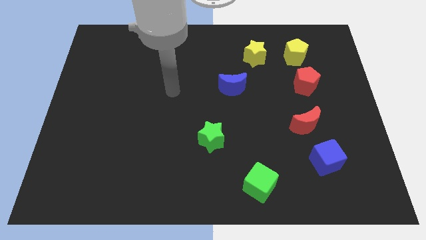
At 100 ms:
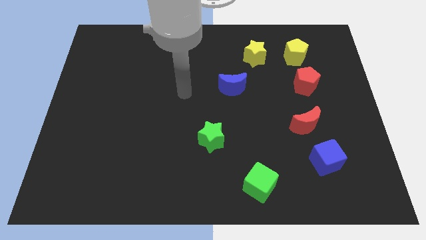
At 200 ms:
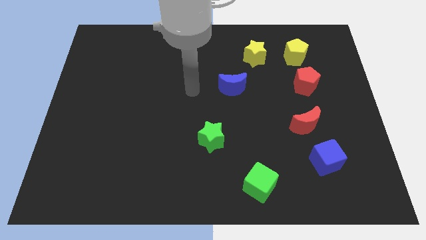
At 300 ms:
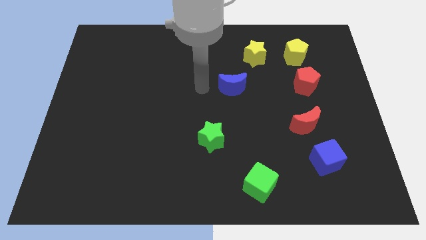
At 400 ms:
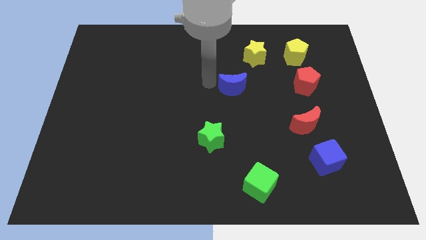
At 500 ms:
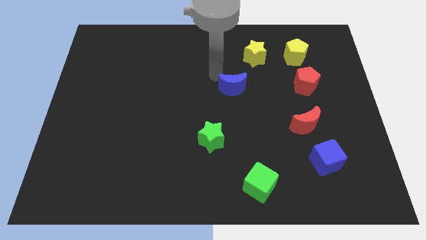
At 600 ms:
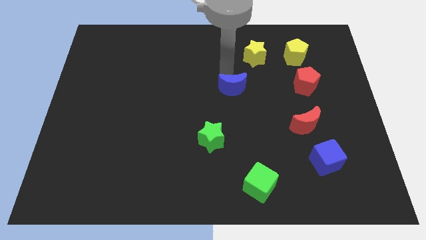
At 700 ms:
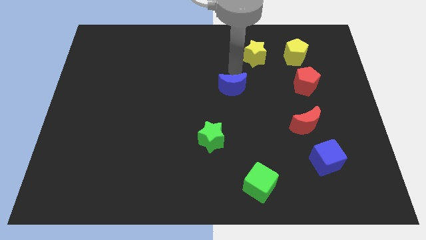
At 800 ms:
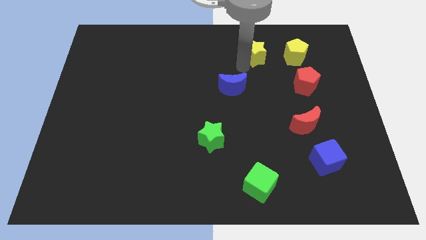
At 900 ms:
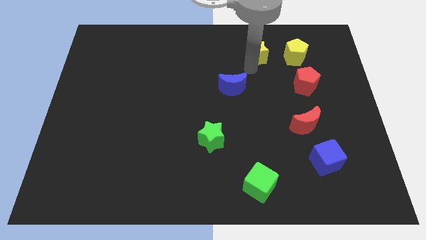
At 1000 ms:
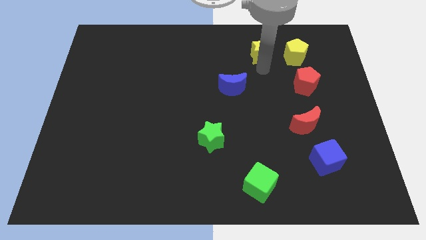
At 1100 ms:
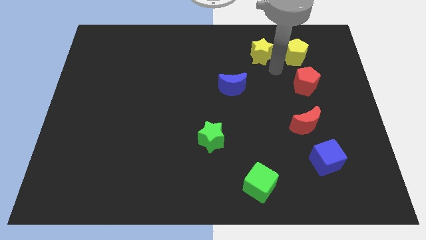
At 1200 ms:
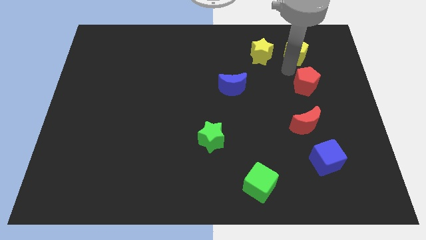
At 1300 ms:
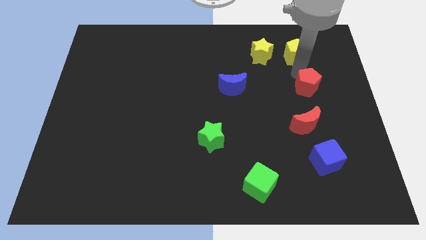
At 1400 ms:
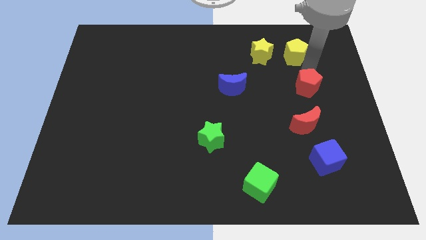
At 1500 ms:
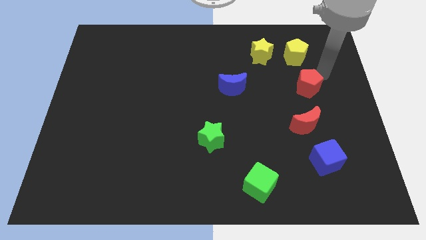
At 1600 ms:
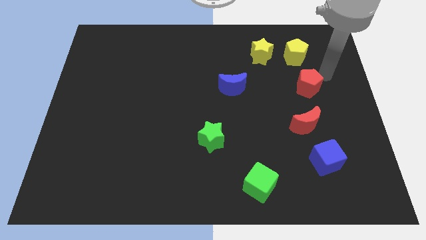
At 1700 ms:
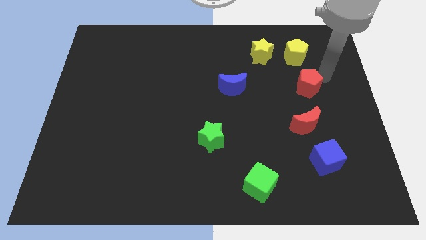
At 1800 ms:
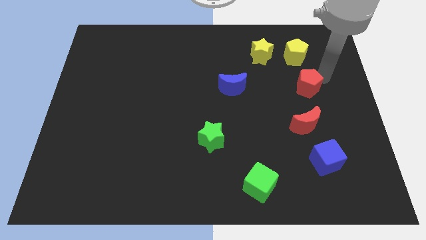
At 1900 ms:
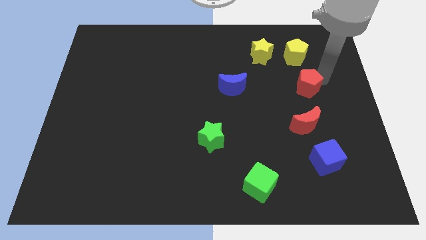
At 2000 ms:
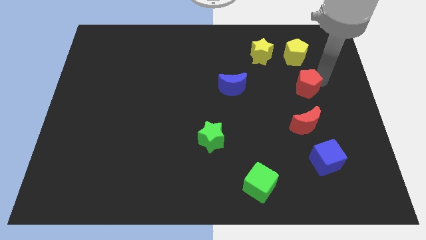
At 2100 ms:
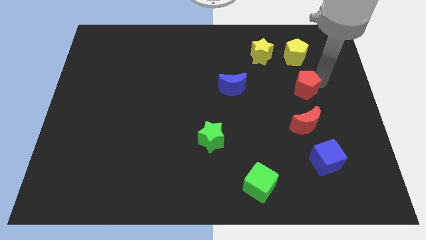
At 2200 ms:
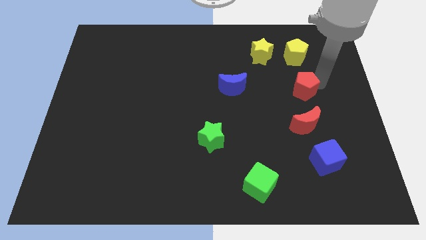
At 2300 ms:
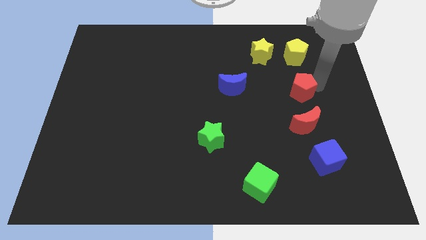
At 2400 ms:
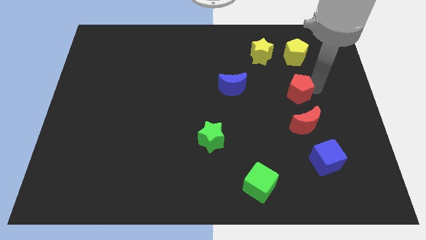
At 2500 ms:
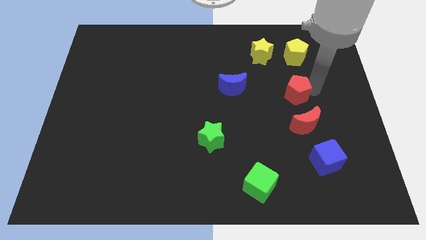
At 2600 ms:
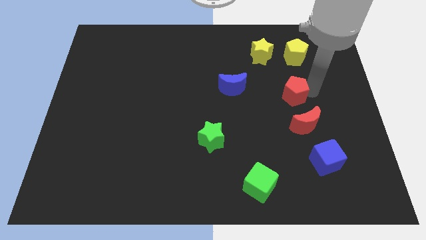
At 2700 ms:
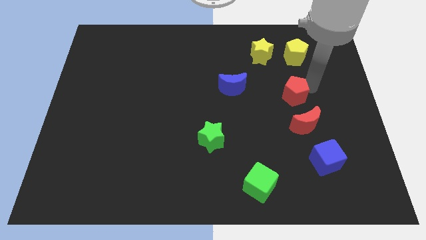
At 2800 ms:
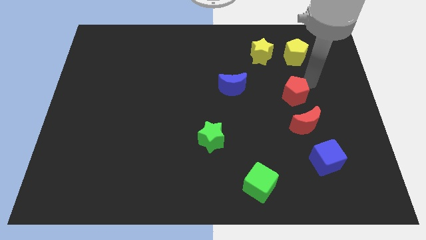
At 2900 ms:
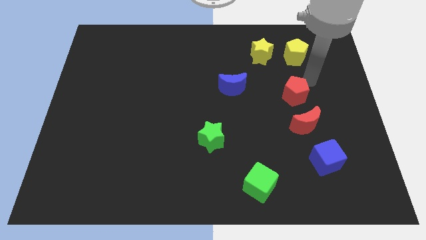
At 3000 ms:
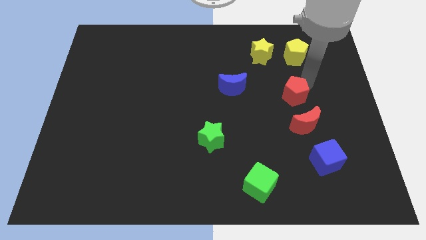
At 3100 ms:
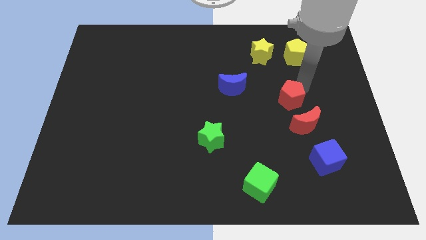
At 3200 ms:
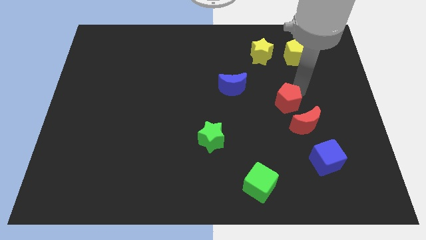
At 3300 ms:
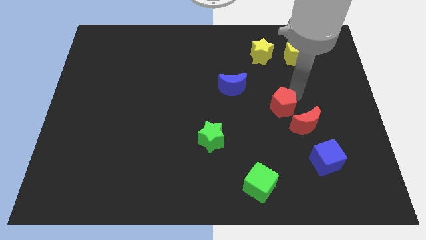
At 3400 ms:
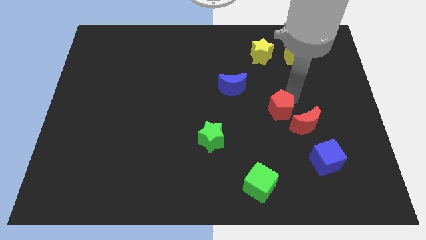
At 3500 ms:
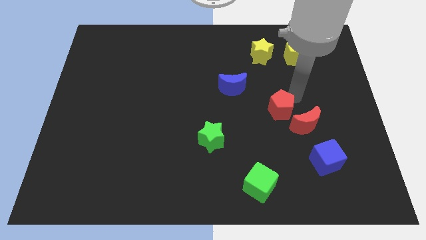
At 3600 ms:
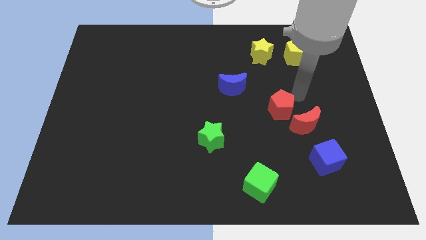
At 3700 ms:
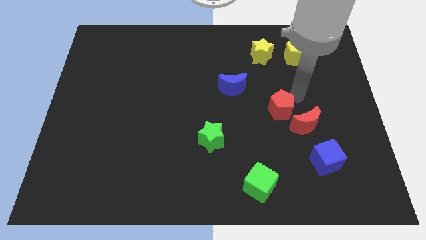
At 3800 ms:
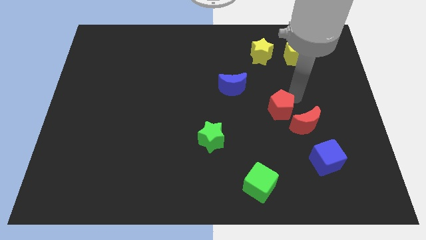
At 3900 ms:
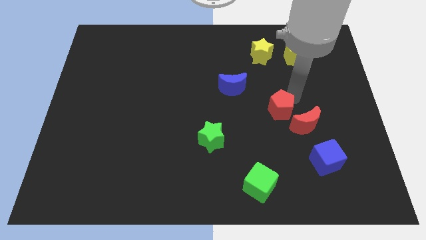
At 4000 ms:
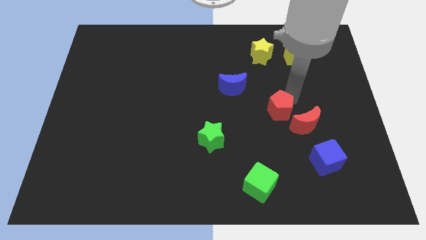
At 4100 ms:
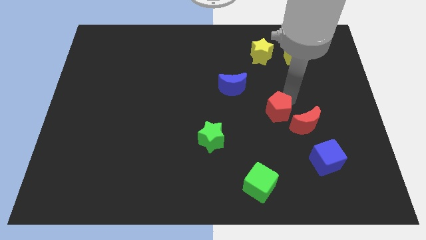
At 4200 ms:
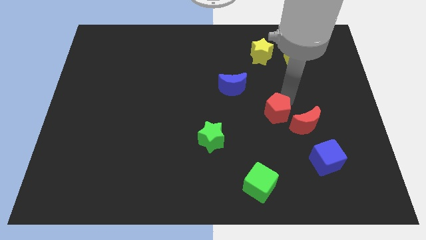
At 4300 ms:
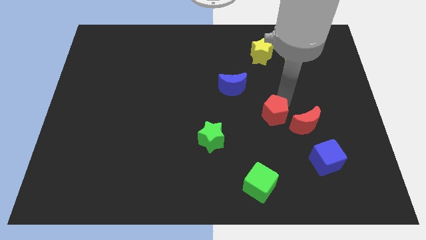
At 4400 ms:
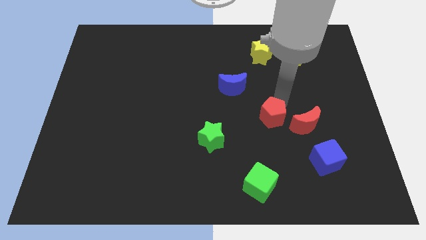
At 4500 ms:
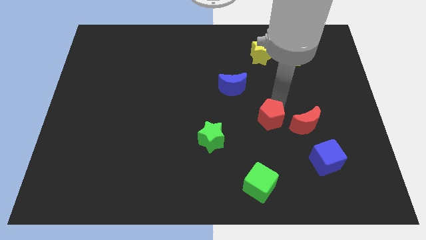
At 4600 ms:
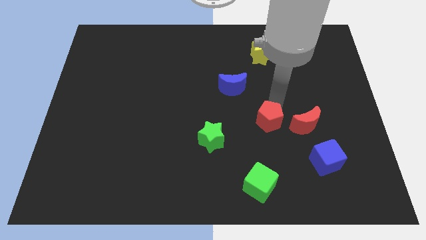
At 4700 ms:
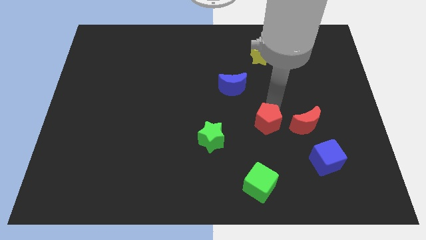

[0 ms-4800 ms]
move the red pentagon right of the green star

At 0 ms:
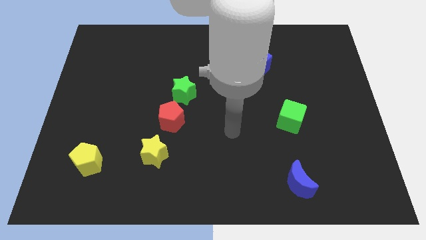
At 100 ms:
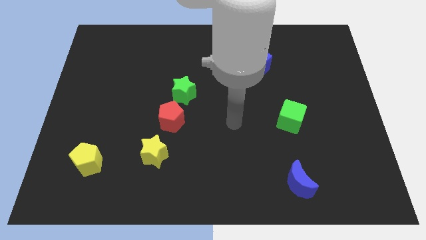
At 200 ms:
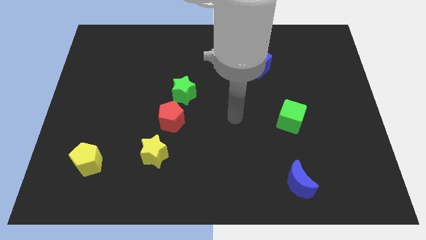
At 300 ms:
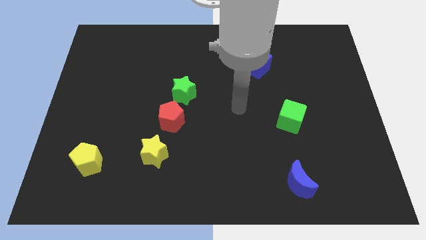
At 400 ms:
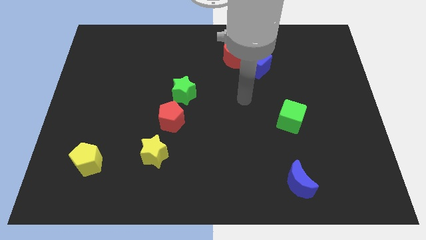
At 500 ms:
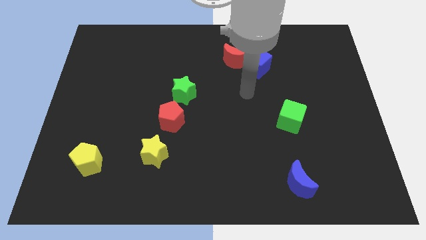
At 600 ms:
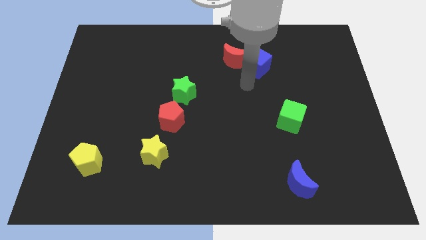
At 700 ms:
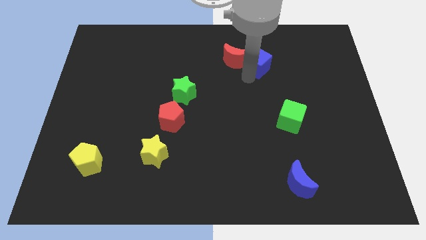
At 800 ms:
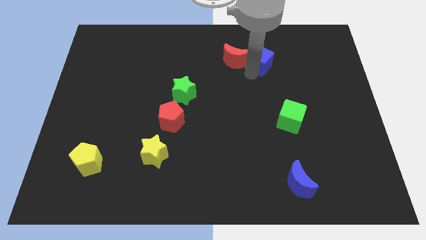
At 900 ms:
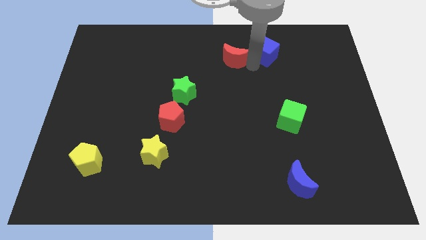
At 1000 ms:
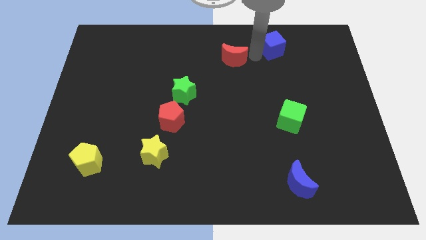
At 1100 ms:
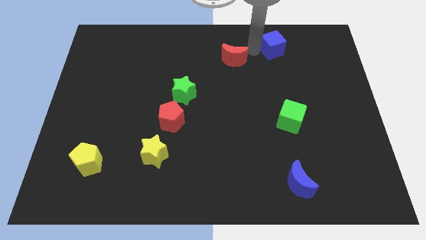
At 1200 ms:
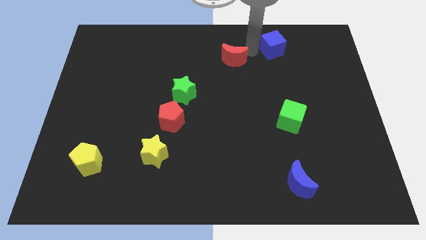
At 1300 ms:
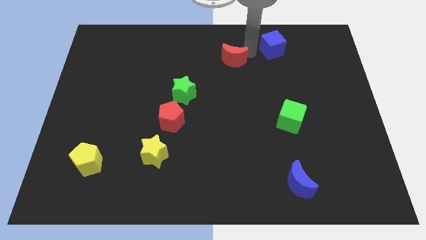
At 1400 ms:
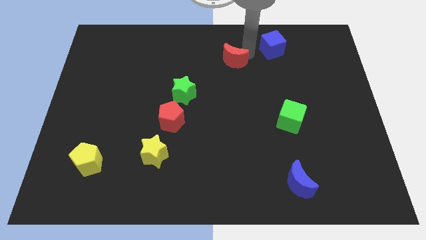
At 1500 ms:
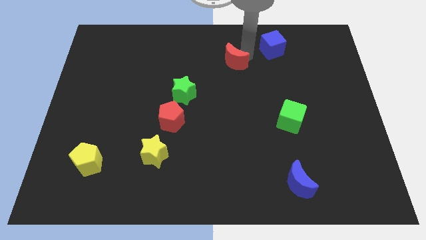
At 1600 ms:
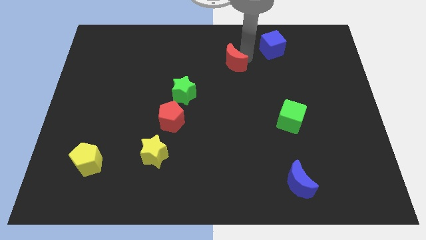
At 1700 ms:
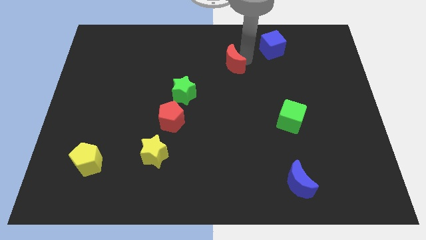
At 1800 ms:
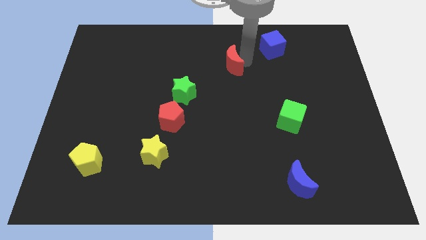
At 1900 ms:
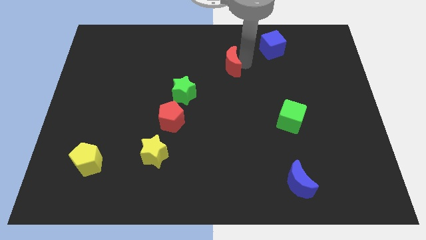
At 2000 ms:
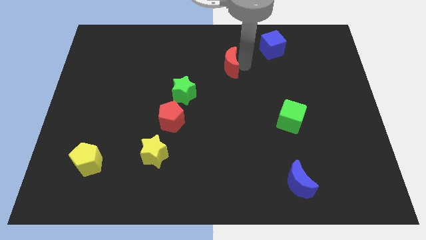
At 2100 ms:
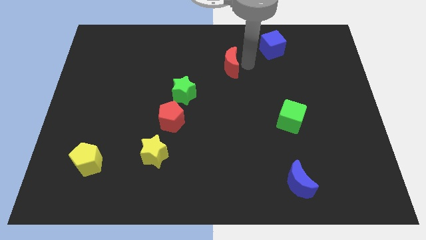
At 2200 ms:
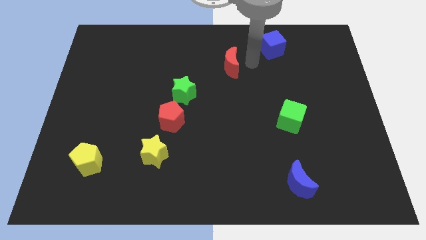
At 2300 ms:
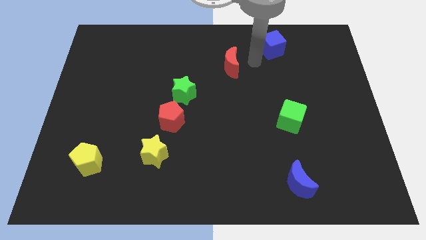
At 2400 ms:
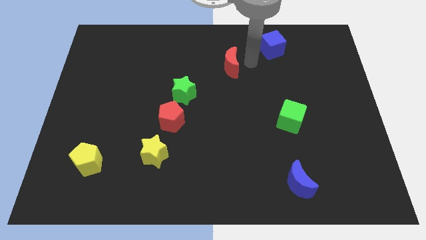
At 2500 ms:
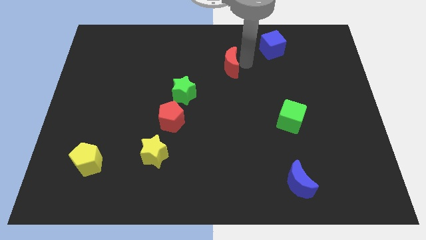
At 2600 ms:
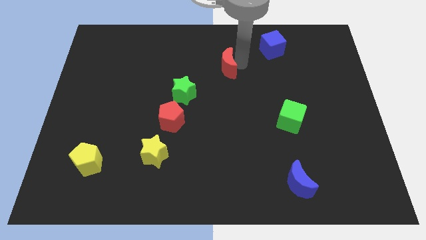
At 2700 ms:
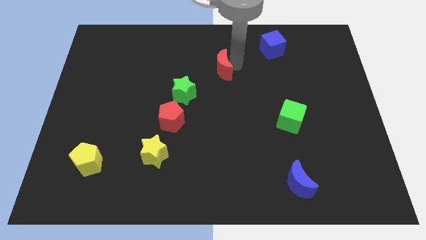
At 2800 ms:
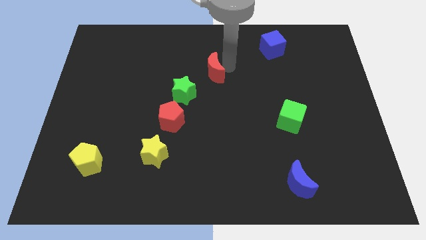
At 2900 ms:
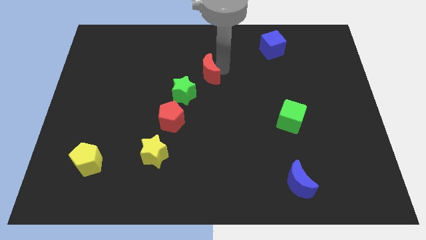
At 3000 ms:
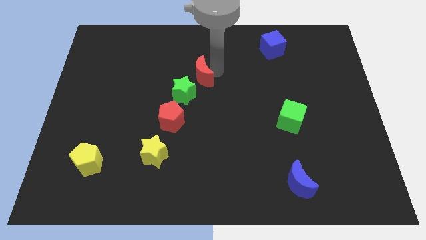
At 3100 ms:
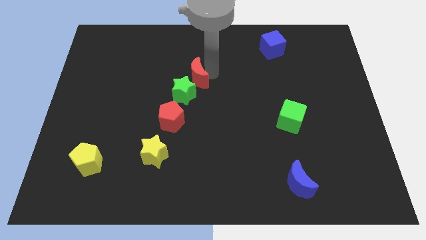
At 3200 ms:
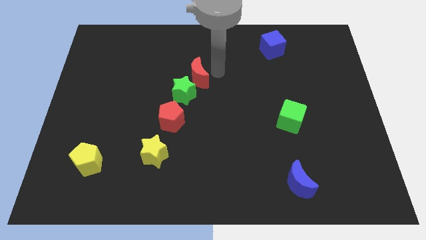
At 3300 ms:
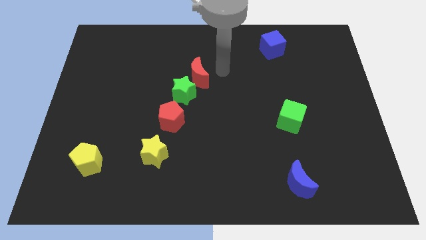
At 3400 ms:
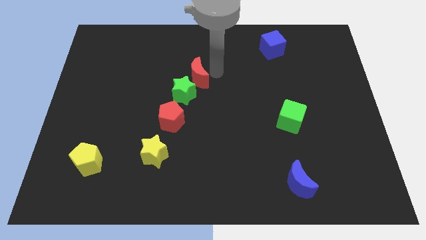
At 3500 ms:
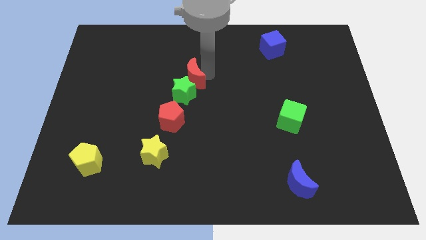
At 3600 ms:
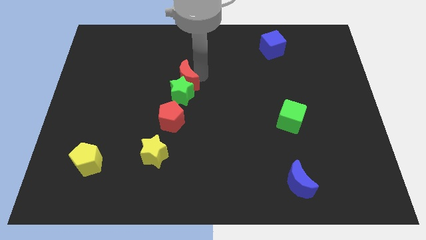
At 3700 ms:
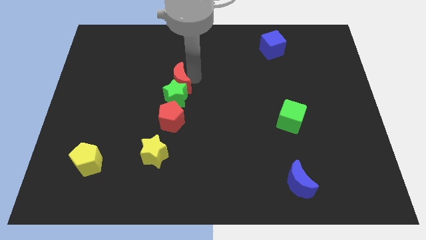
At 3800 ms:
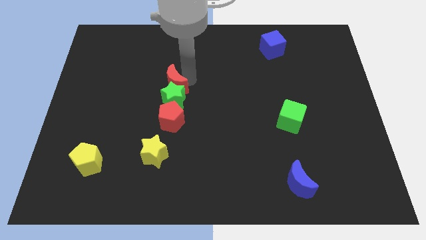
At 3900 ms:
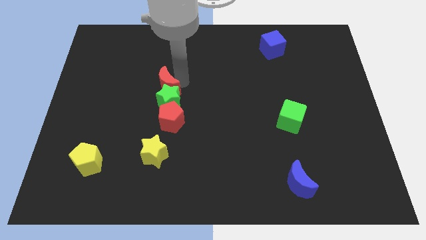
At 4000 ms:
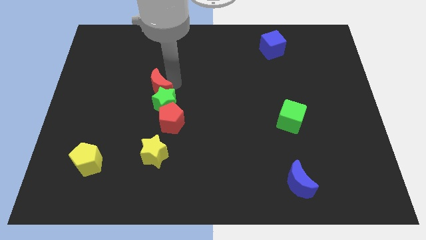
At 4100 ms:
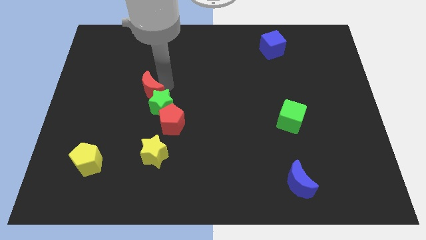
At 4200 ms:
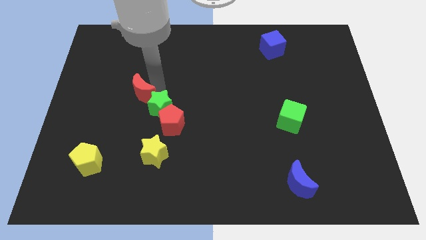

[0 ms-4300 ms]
move the red moon just left of the green star
